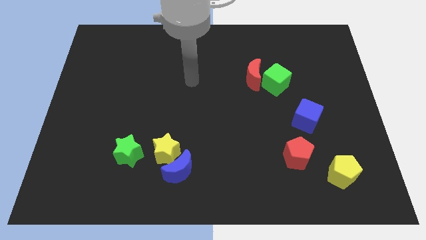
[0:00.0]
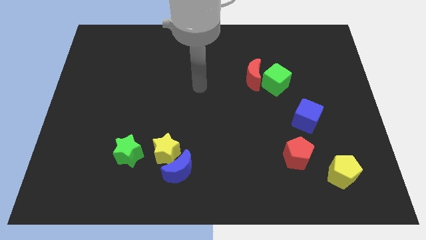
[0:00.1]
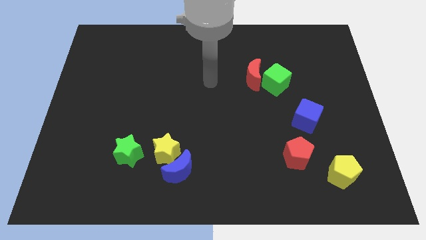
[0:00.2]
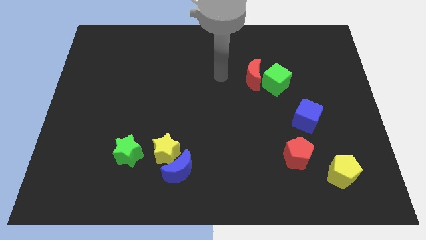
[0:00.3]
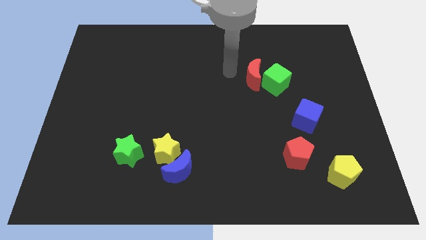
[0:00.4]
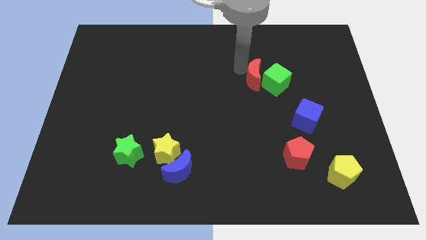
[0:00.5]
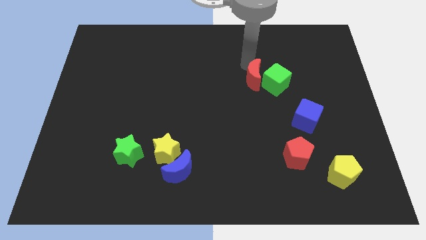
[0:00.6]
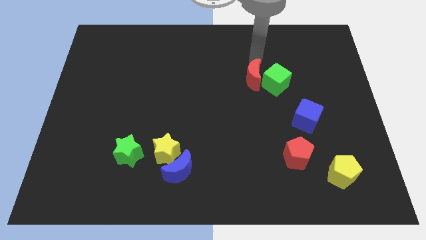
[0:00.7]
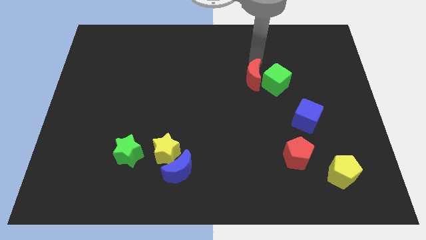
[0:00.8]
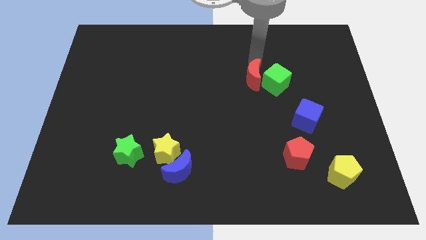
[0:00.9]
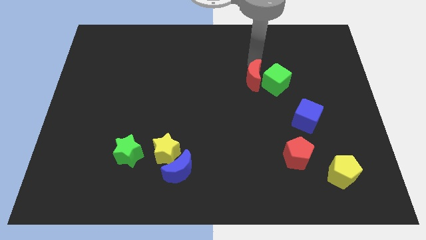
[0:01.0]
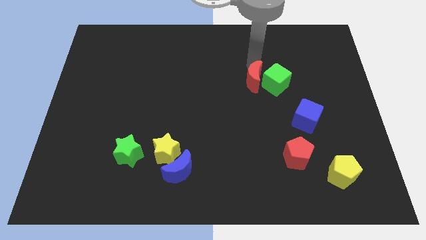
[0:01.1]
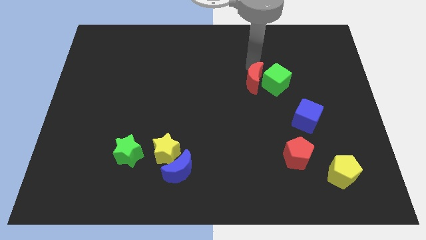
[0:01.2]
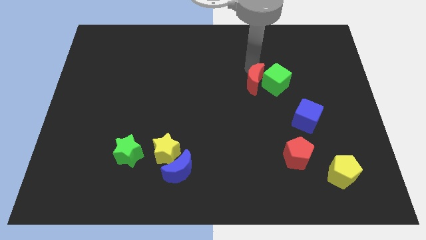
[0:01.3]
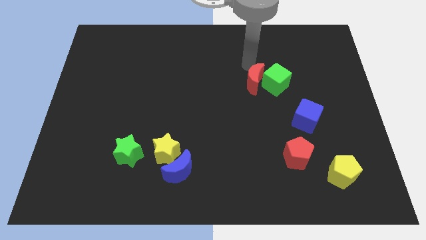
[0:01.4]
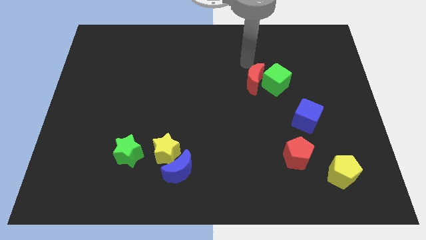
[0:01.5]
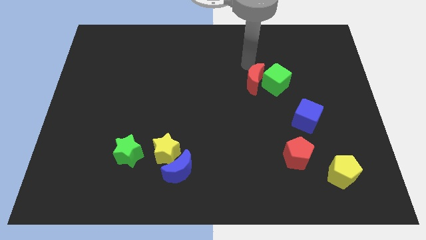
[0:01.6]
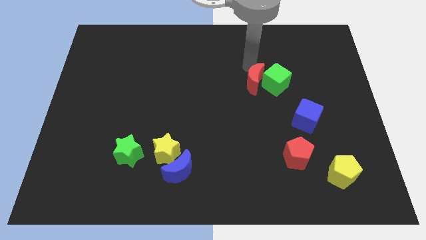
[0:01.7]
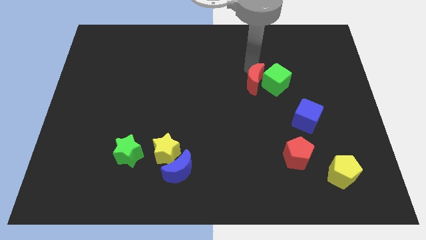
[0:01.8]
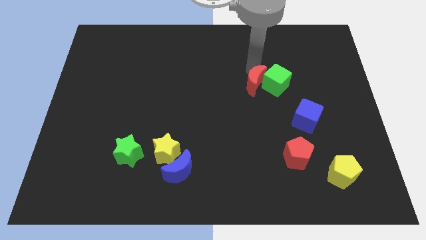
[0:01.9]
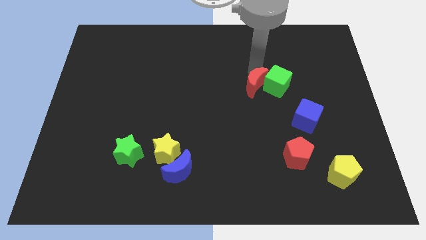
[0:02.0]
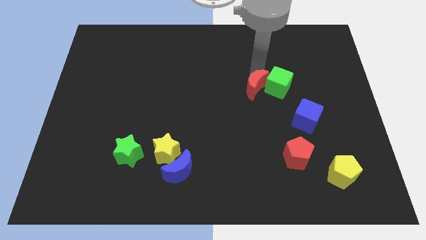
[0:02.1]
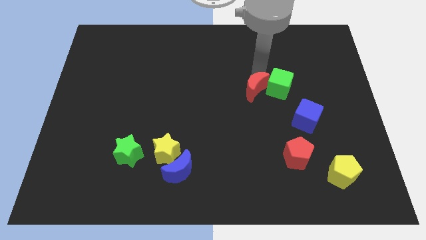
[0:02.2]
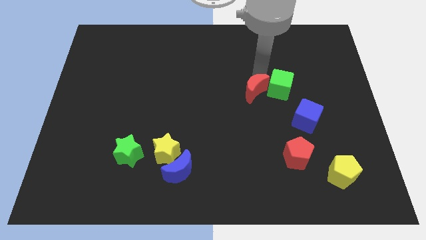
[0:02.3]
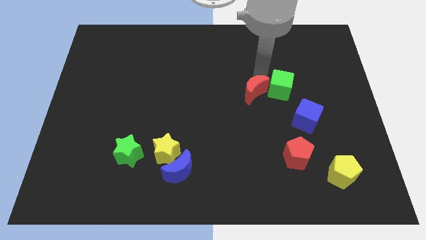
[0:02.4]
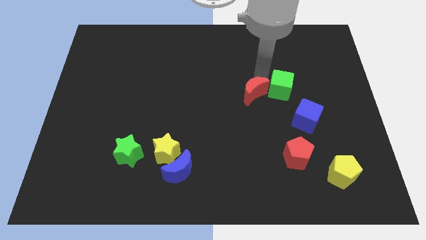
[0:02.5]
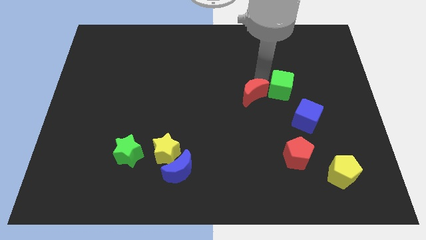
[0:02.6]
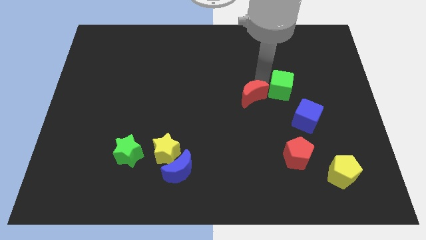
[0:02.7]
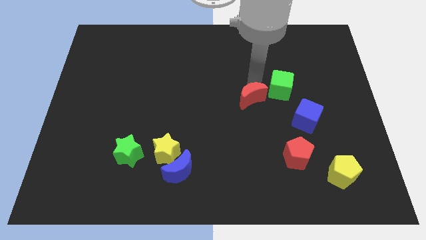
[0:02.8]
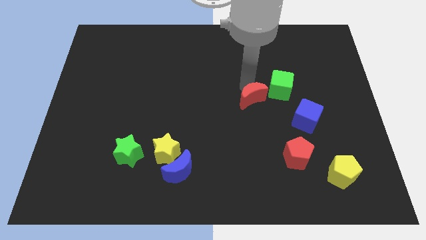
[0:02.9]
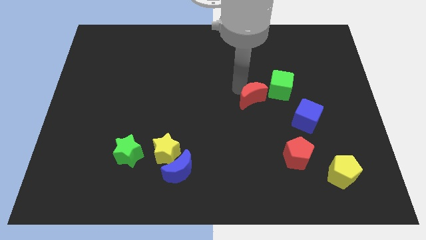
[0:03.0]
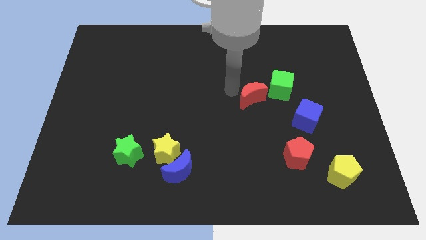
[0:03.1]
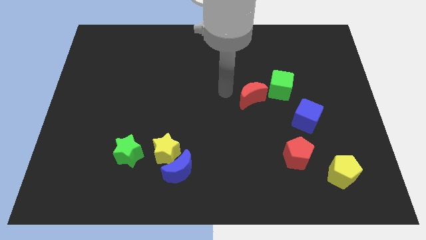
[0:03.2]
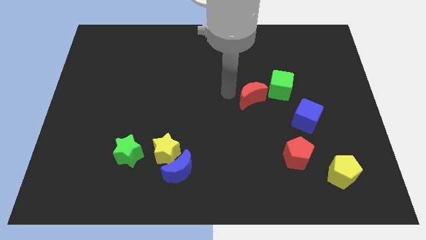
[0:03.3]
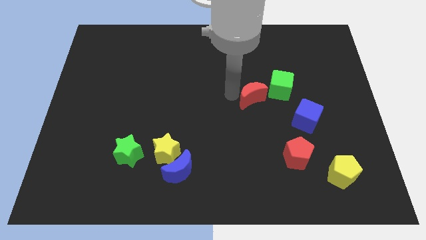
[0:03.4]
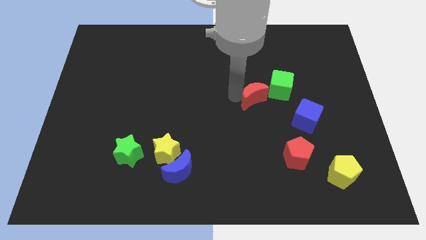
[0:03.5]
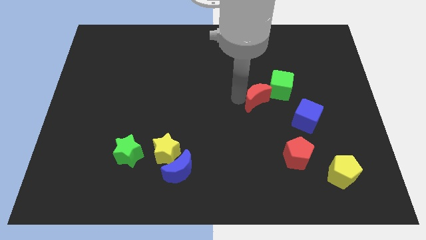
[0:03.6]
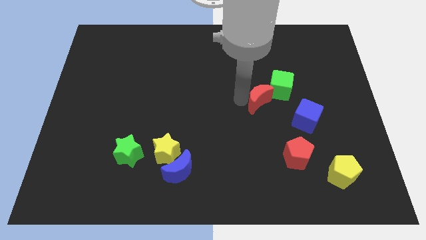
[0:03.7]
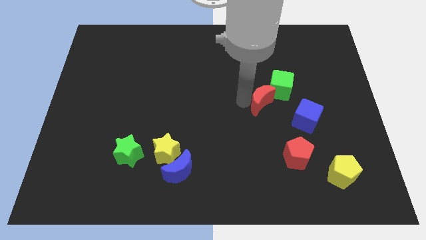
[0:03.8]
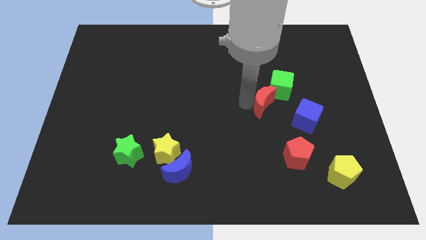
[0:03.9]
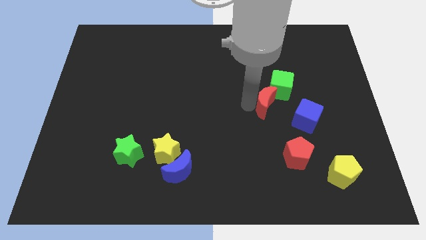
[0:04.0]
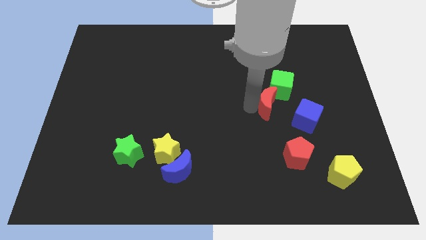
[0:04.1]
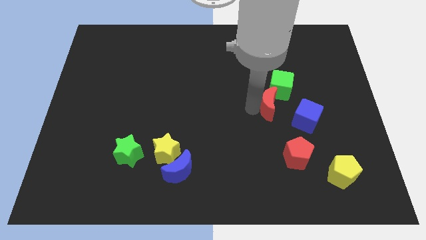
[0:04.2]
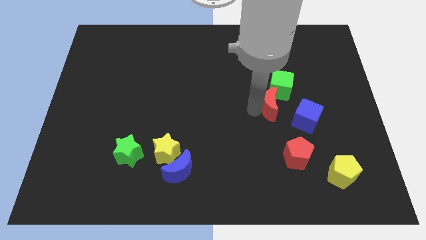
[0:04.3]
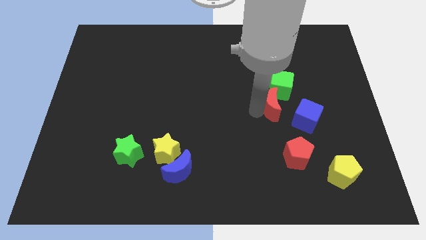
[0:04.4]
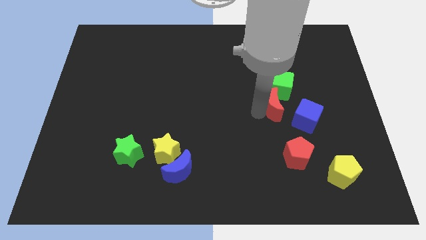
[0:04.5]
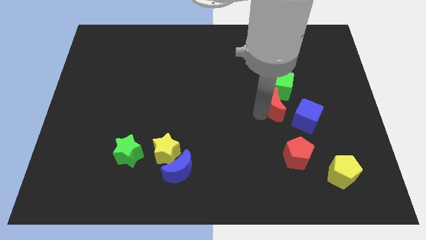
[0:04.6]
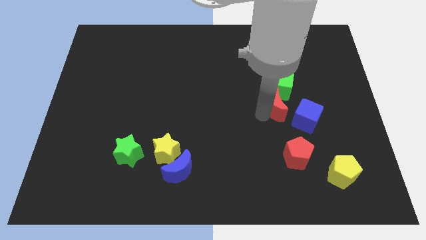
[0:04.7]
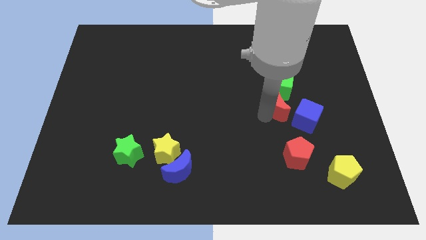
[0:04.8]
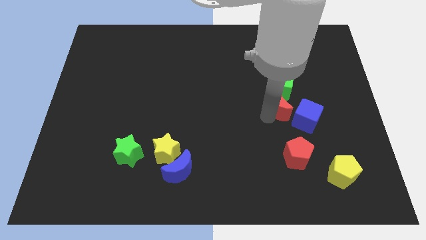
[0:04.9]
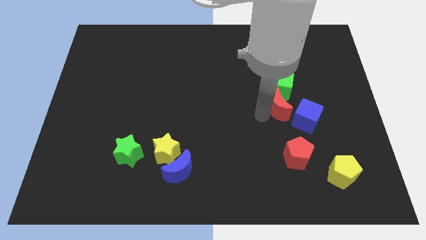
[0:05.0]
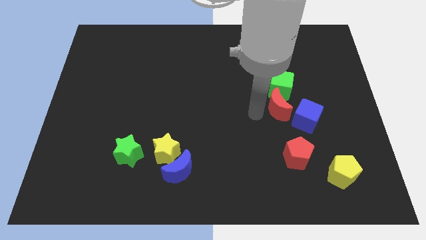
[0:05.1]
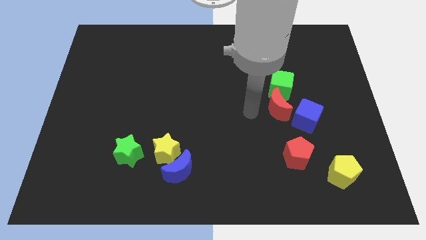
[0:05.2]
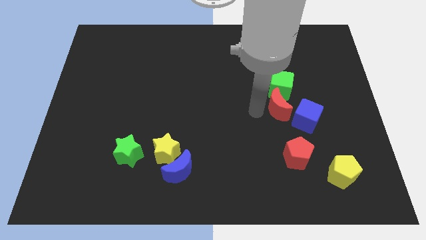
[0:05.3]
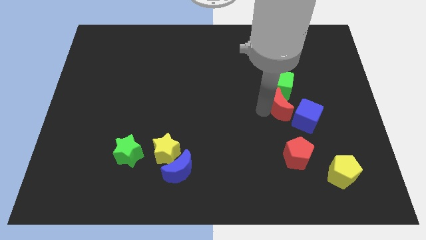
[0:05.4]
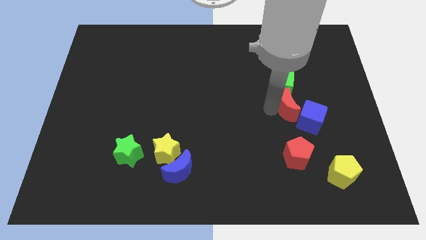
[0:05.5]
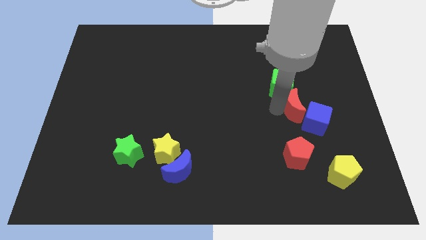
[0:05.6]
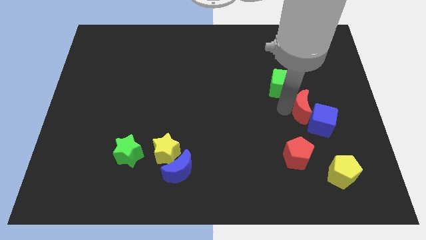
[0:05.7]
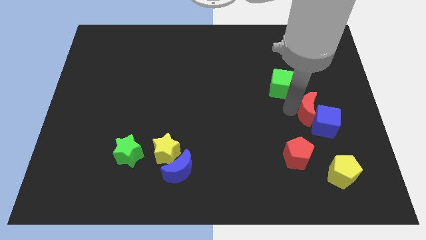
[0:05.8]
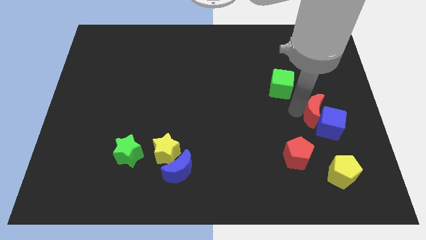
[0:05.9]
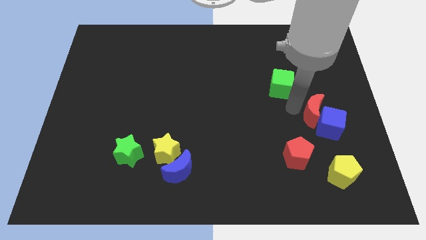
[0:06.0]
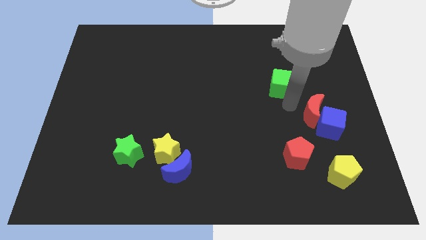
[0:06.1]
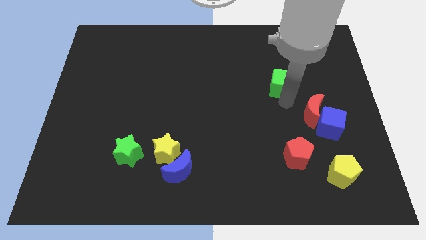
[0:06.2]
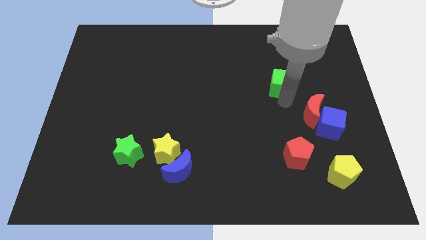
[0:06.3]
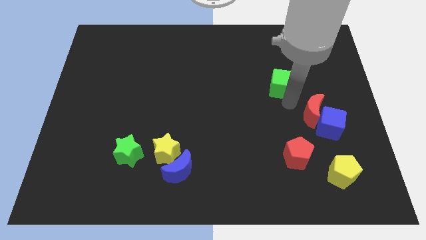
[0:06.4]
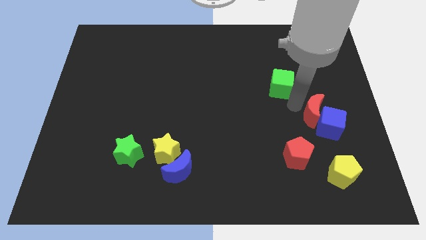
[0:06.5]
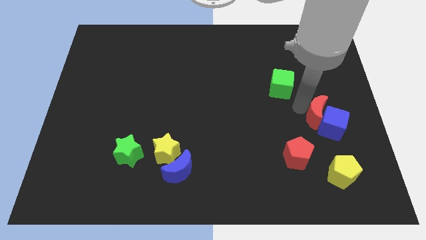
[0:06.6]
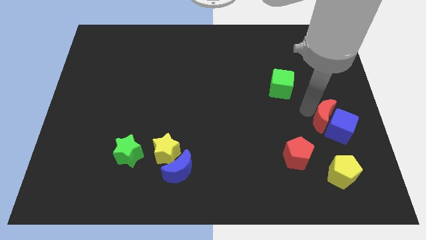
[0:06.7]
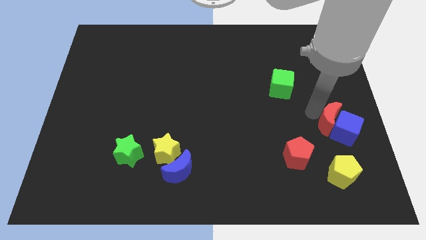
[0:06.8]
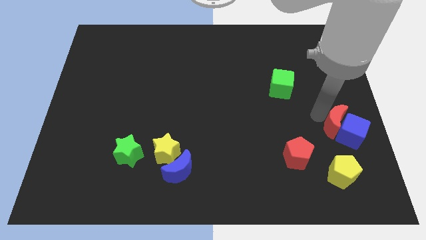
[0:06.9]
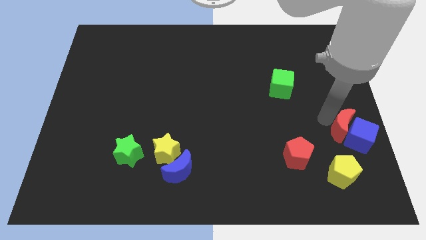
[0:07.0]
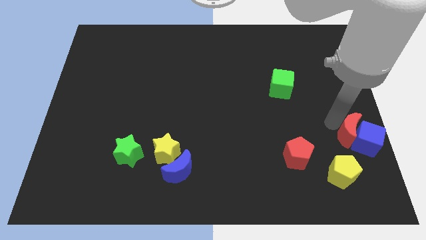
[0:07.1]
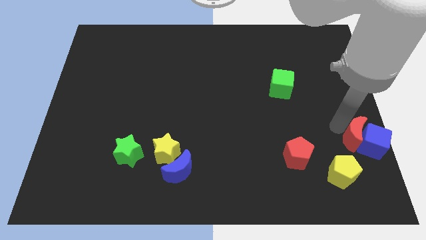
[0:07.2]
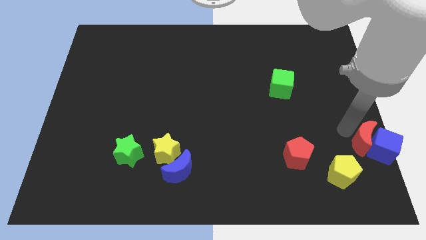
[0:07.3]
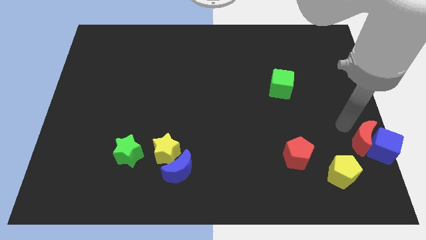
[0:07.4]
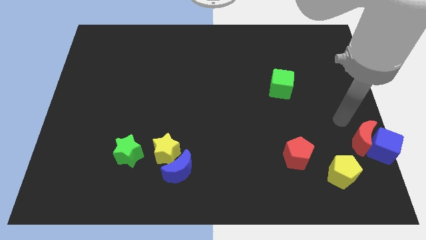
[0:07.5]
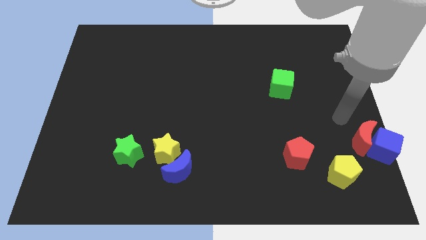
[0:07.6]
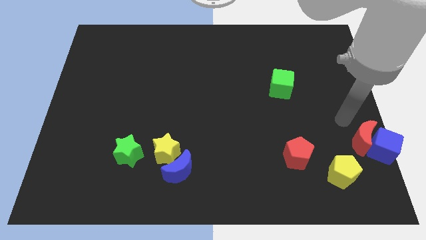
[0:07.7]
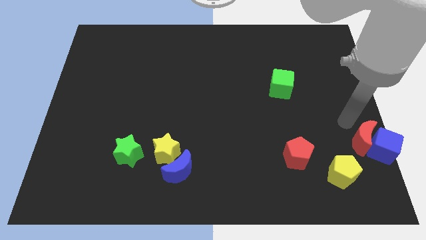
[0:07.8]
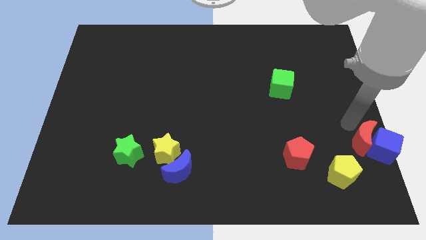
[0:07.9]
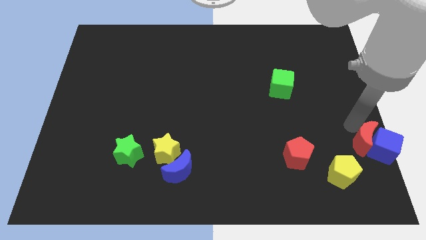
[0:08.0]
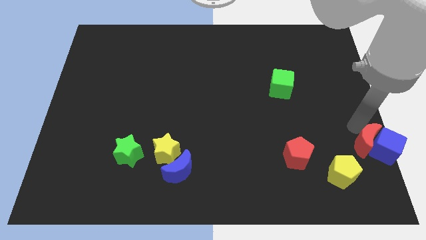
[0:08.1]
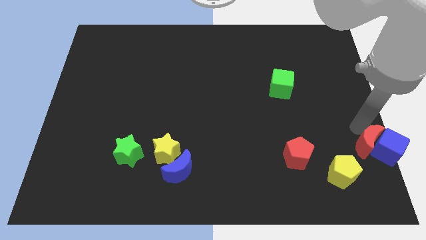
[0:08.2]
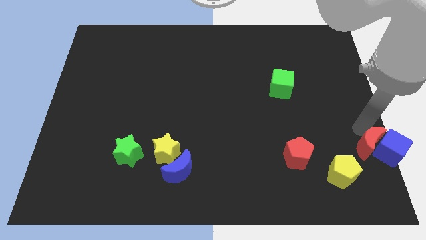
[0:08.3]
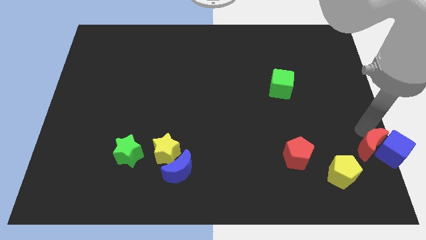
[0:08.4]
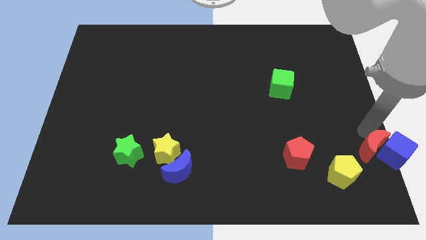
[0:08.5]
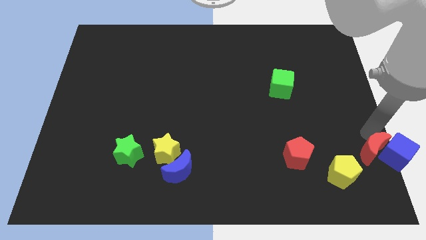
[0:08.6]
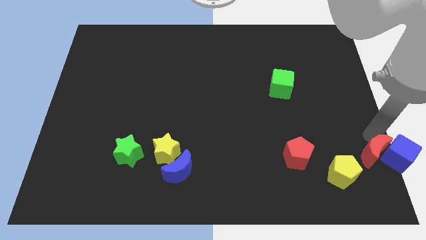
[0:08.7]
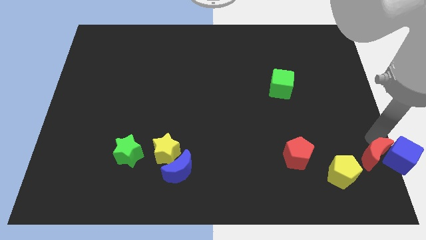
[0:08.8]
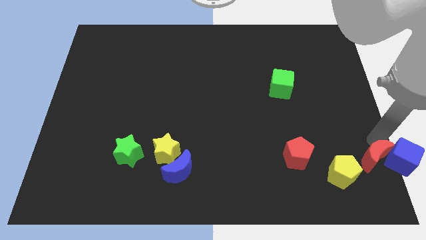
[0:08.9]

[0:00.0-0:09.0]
push the red moon to the bottom right corner
